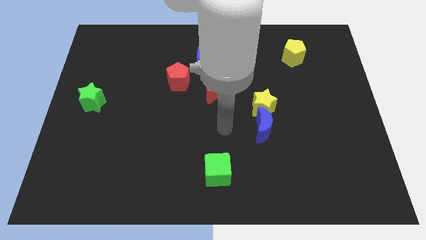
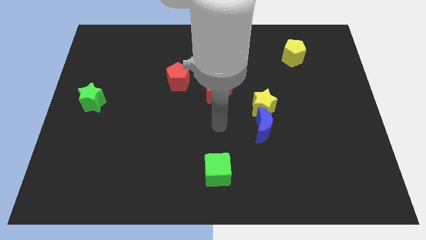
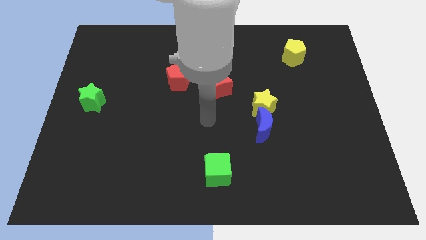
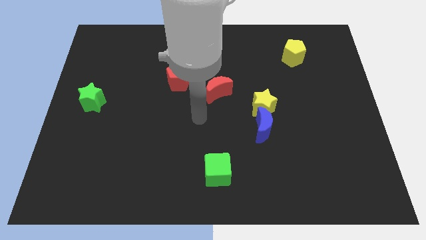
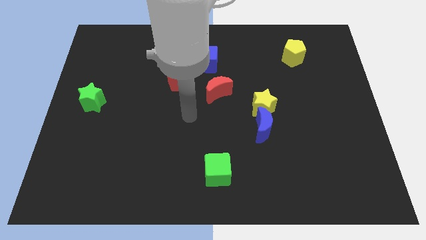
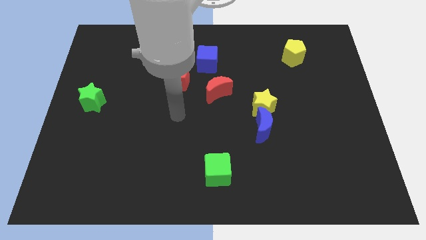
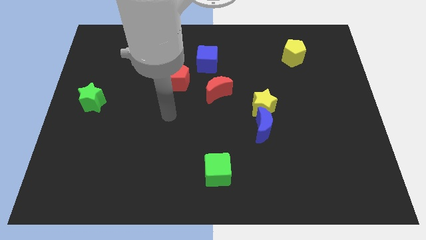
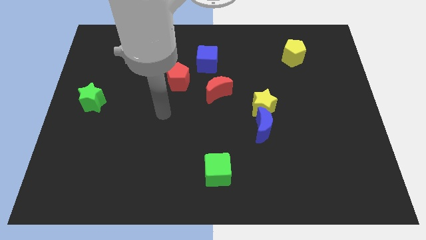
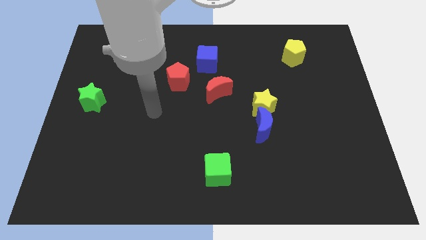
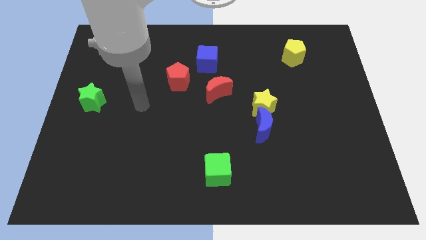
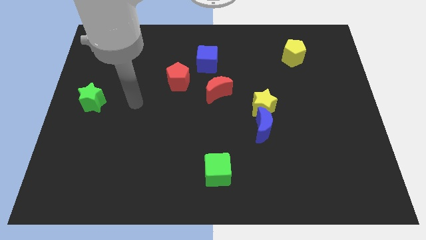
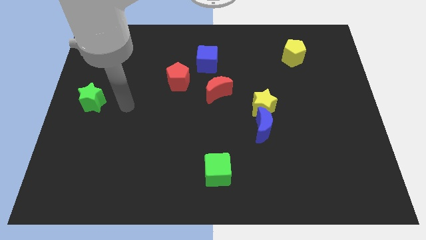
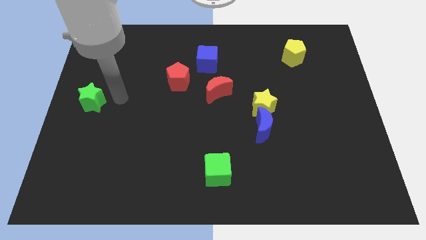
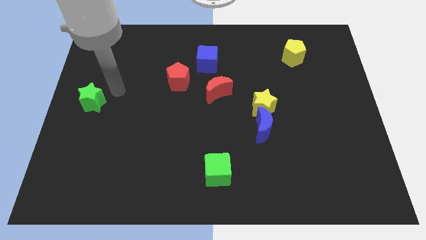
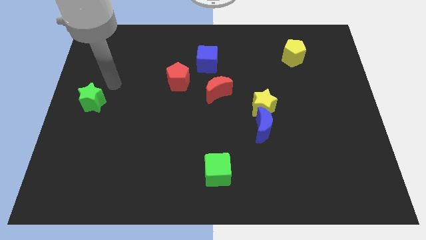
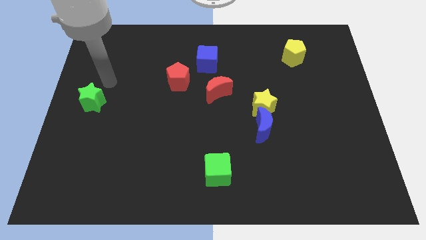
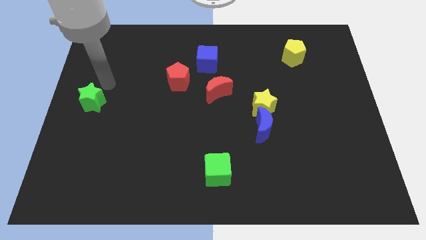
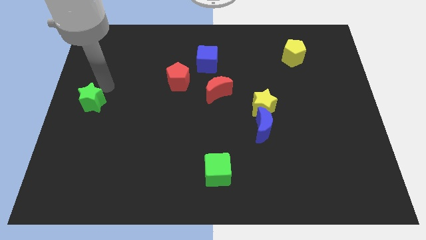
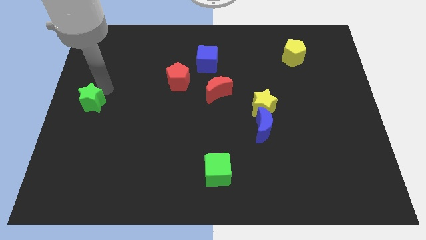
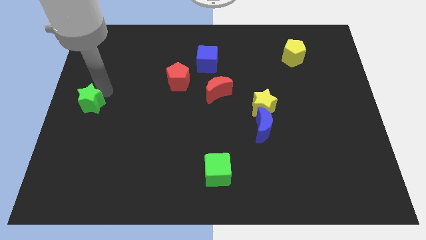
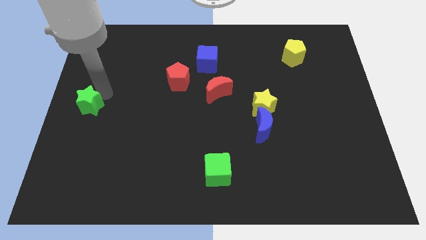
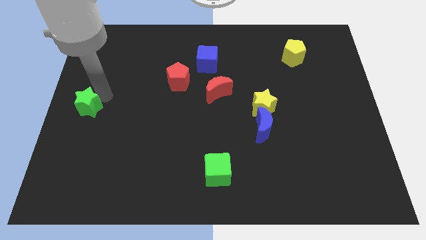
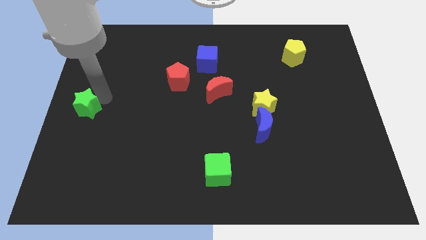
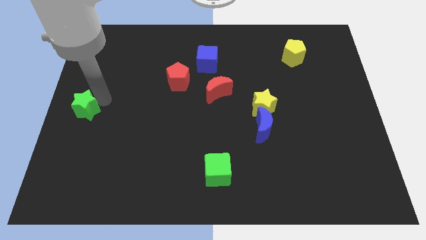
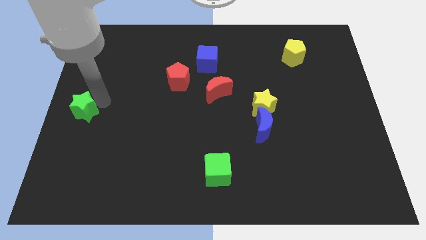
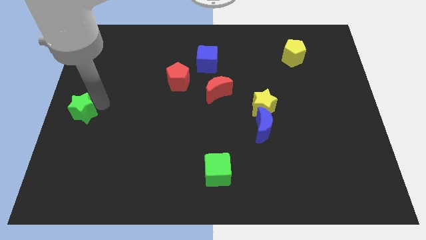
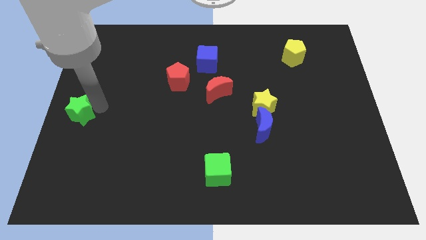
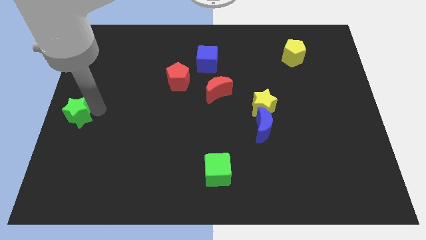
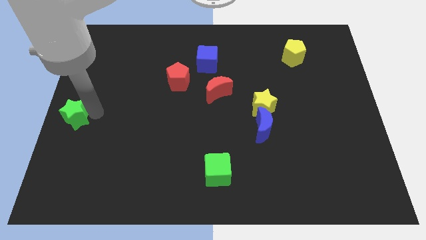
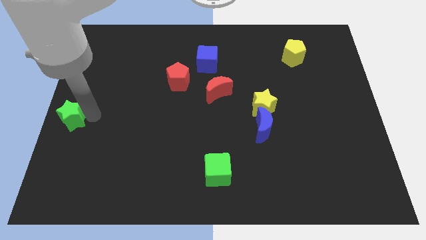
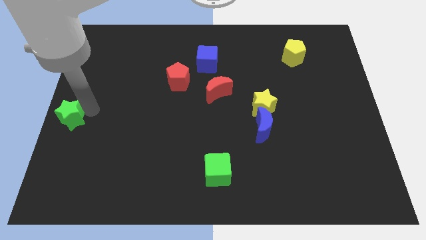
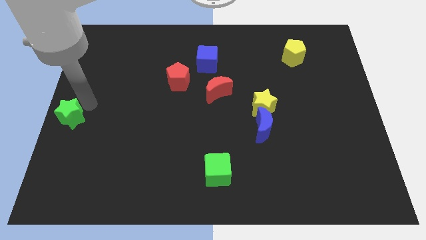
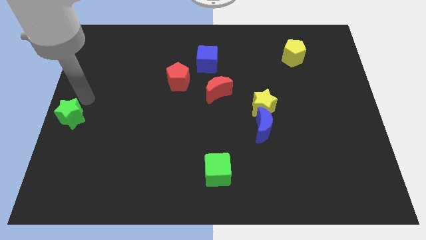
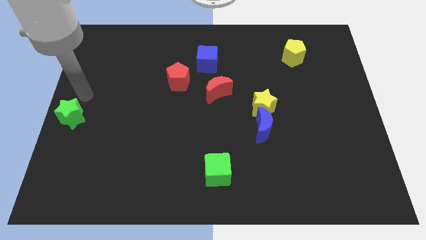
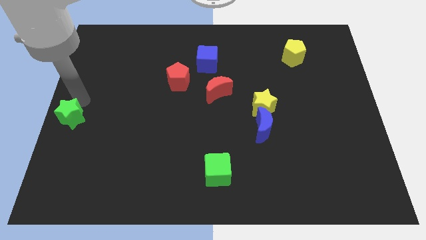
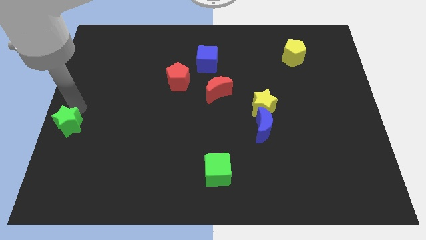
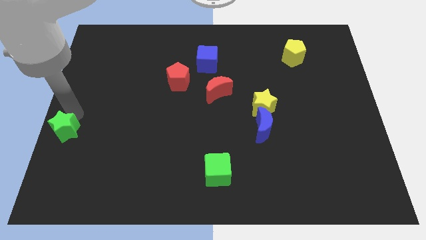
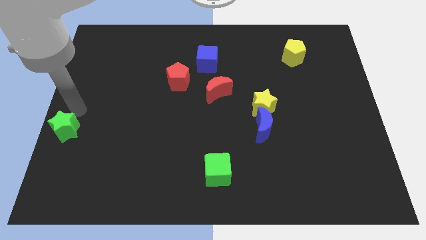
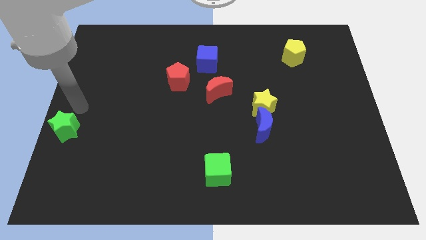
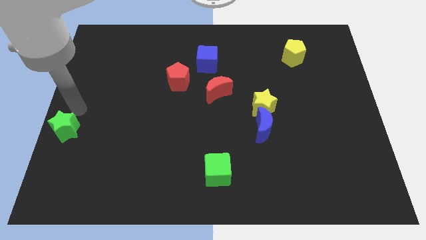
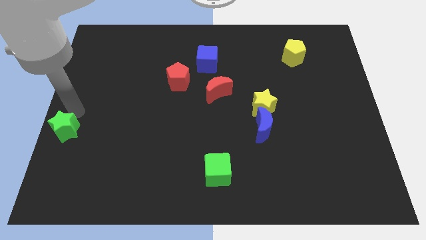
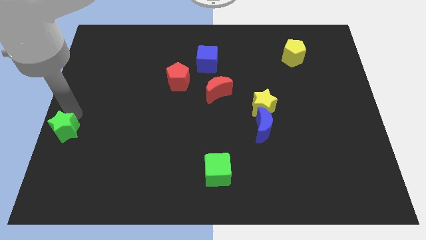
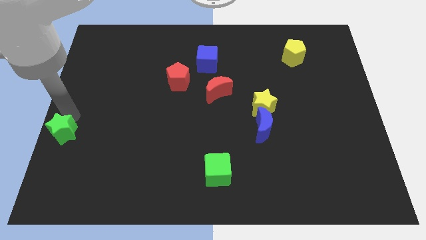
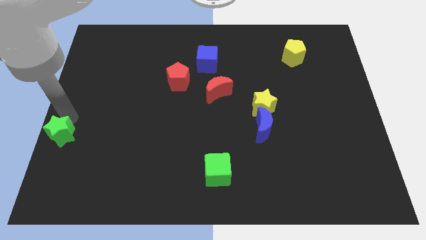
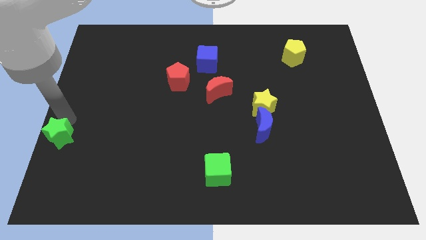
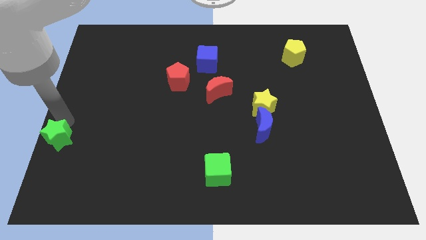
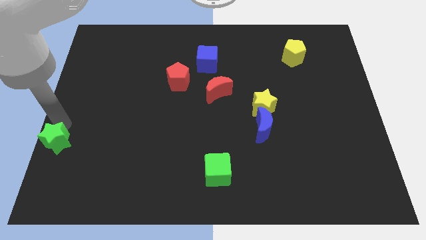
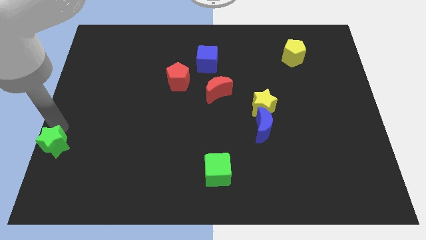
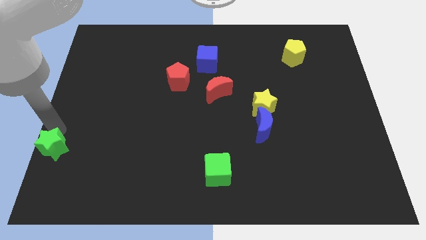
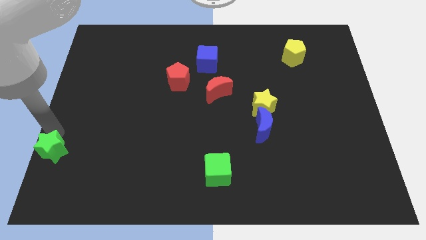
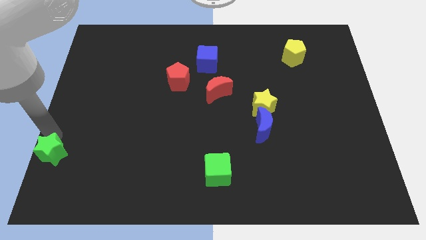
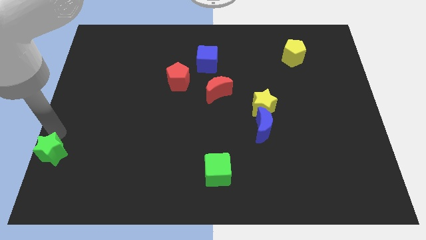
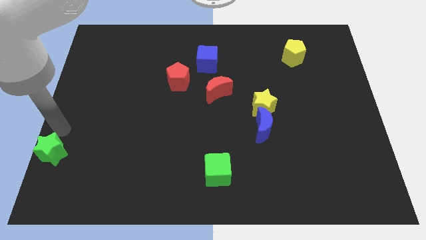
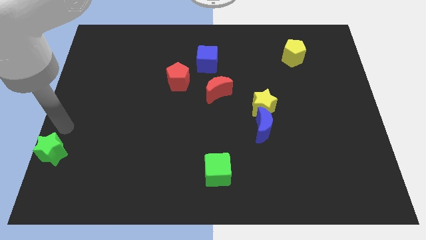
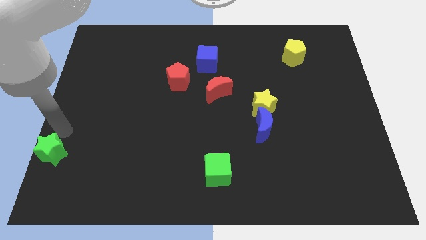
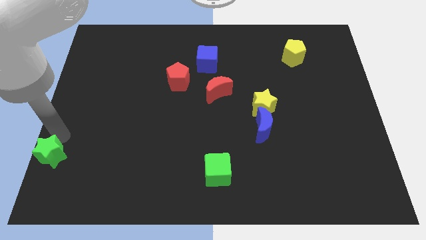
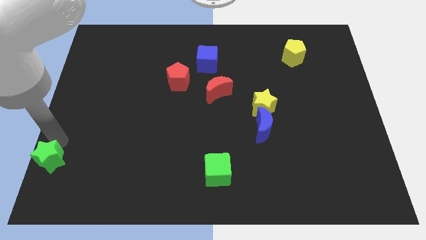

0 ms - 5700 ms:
put the green star to the lower left corner
